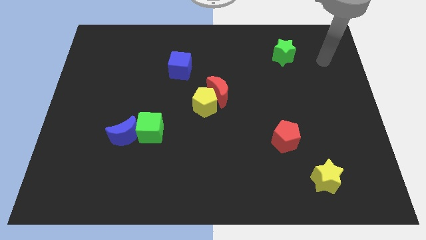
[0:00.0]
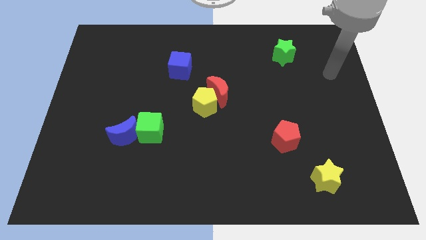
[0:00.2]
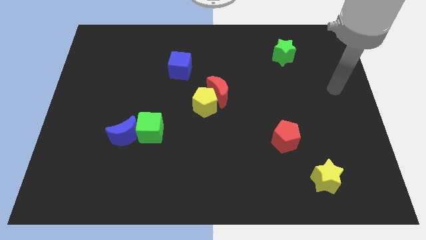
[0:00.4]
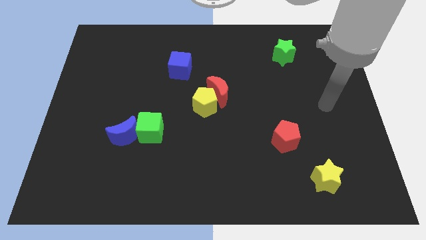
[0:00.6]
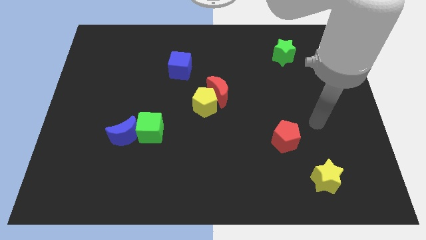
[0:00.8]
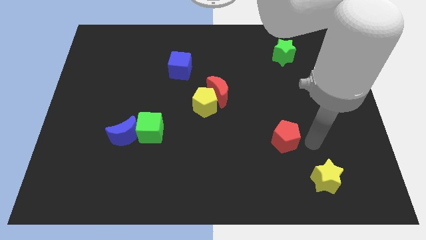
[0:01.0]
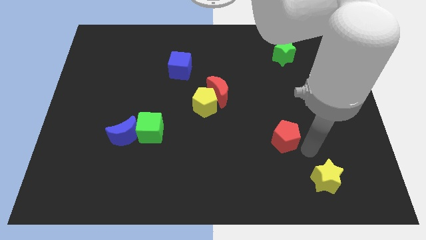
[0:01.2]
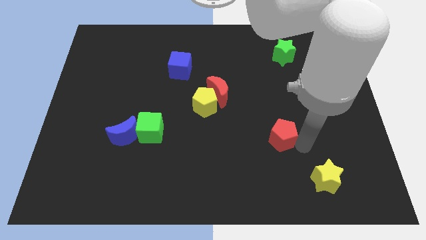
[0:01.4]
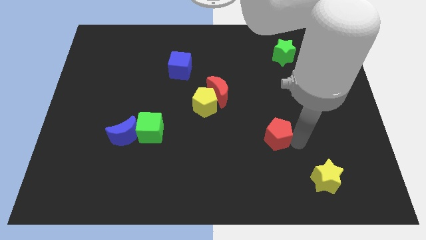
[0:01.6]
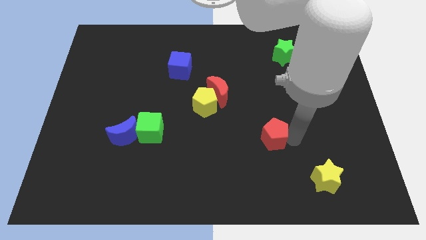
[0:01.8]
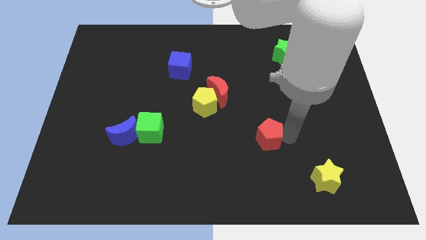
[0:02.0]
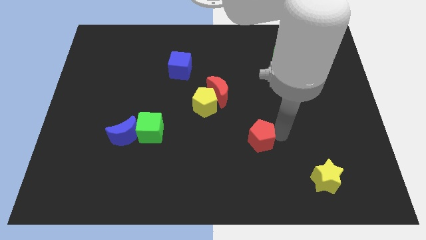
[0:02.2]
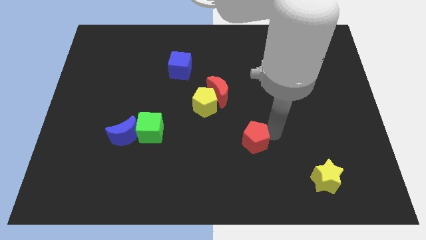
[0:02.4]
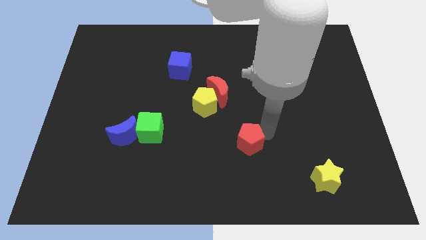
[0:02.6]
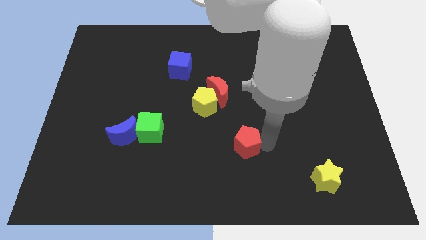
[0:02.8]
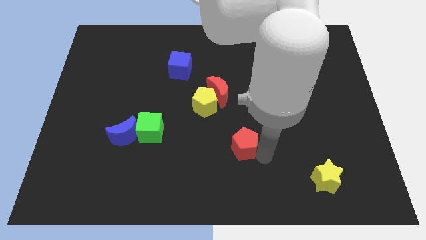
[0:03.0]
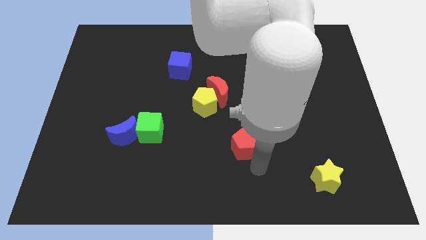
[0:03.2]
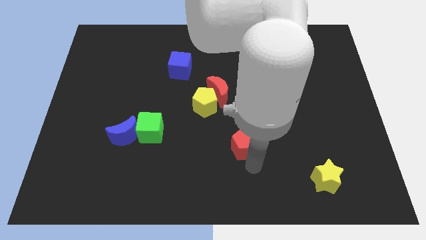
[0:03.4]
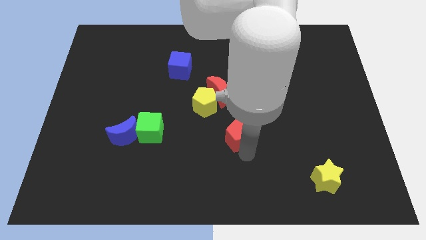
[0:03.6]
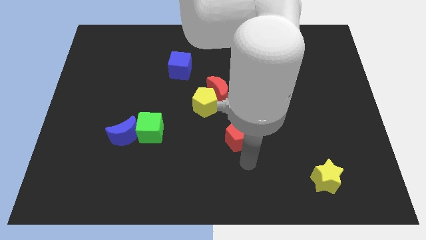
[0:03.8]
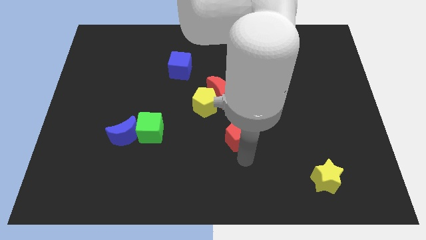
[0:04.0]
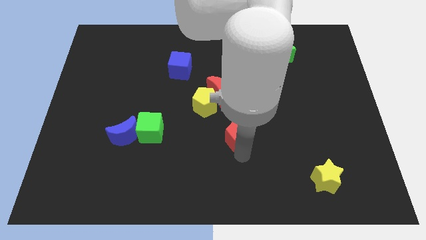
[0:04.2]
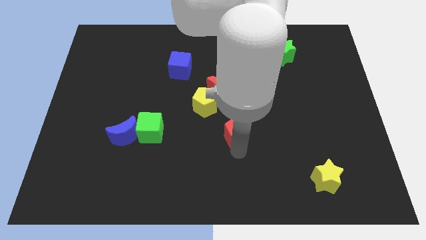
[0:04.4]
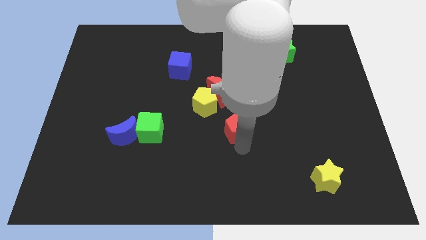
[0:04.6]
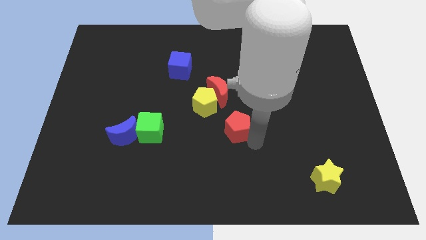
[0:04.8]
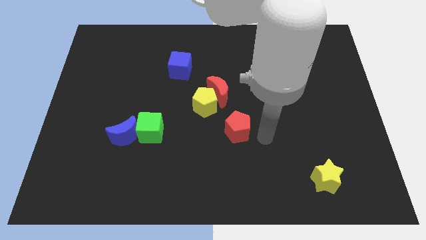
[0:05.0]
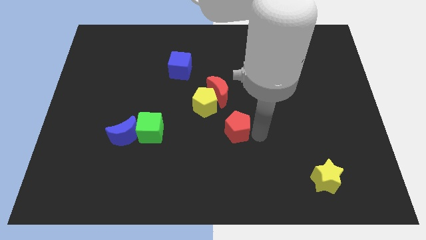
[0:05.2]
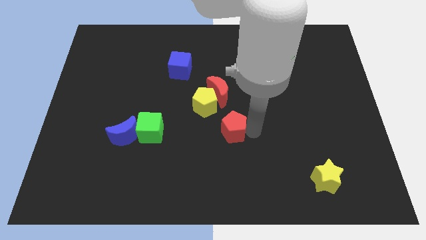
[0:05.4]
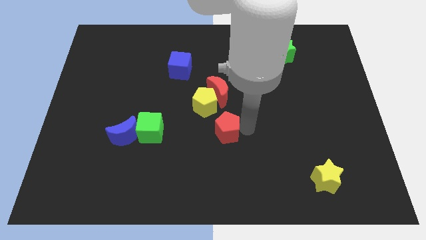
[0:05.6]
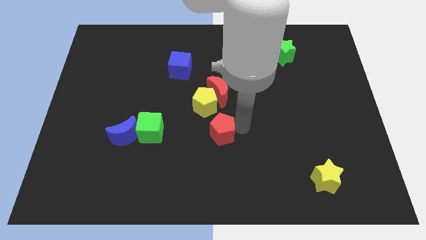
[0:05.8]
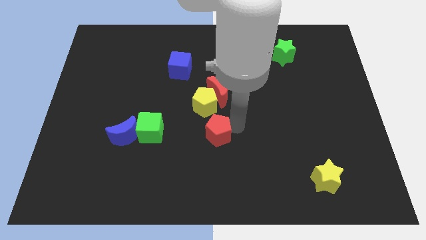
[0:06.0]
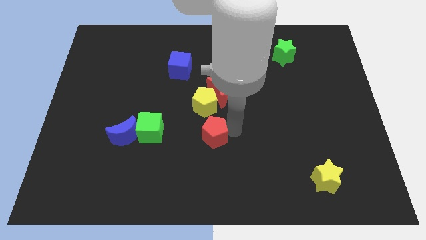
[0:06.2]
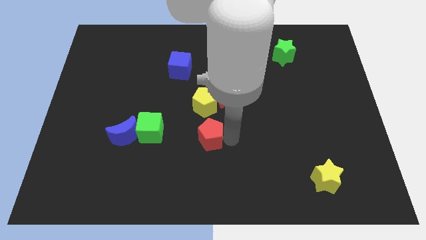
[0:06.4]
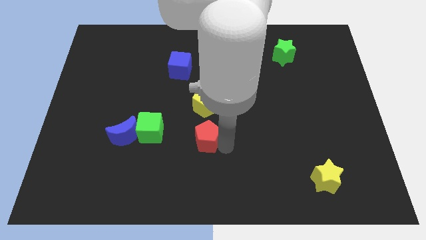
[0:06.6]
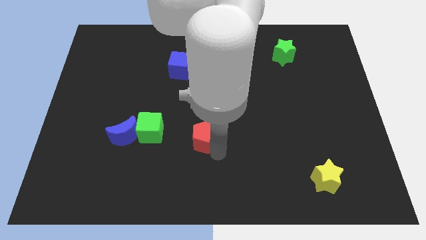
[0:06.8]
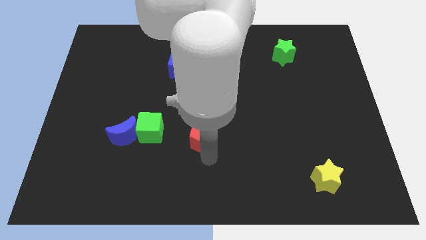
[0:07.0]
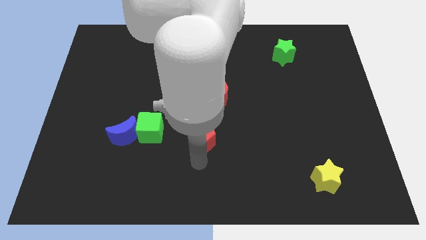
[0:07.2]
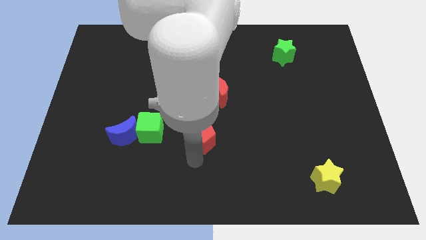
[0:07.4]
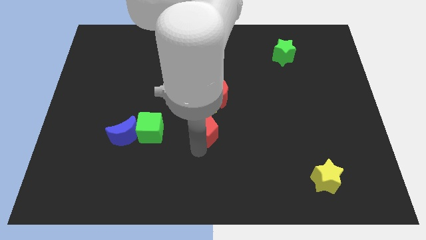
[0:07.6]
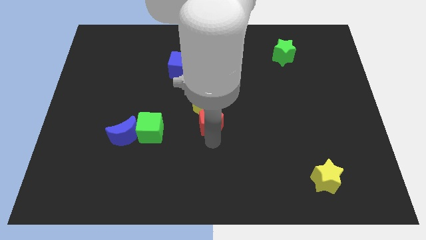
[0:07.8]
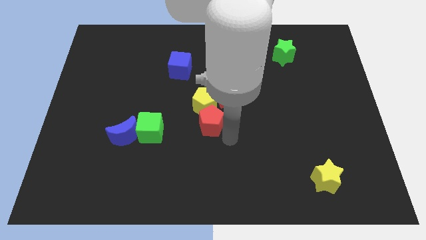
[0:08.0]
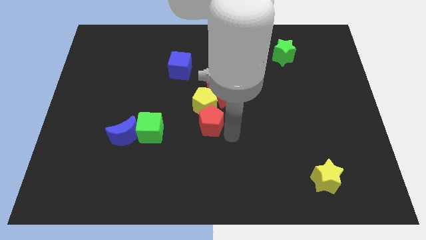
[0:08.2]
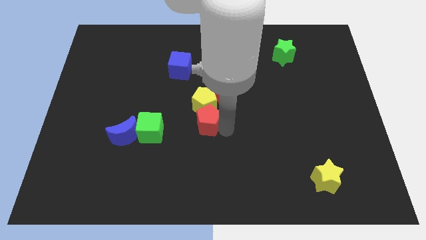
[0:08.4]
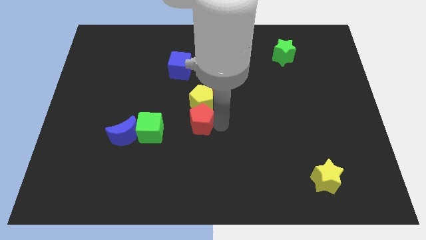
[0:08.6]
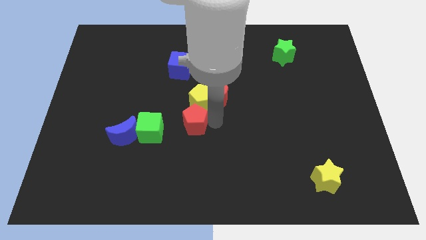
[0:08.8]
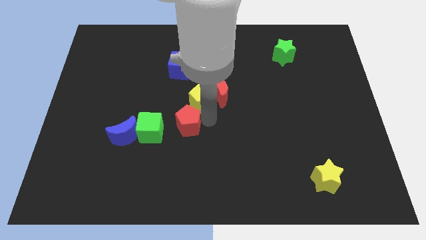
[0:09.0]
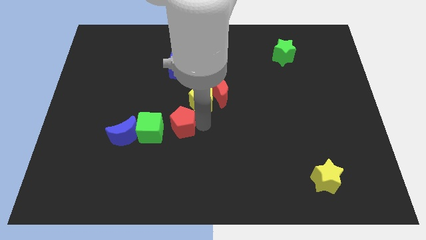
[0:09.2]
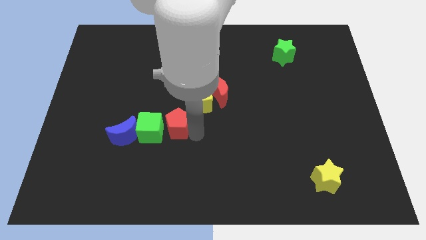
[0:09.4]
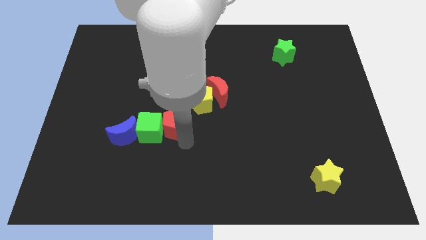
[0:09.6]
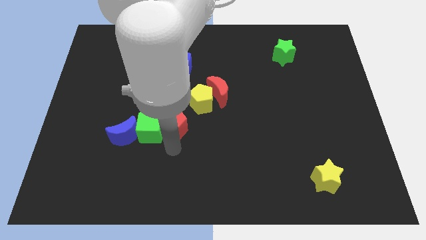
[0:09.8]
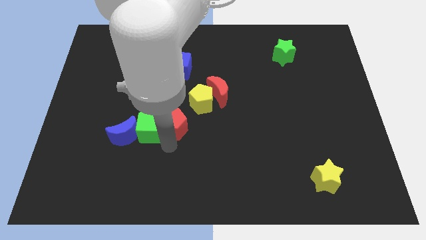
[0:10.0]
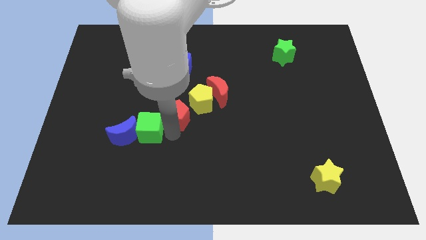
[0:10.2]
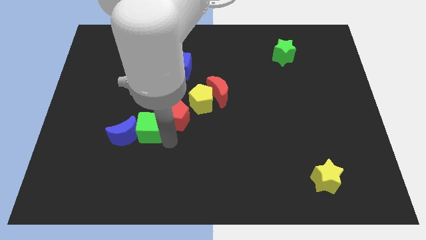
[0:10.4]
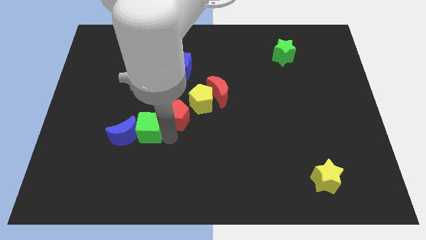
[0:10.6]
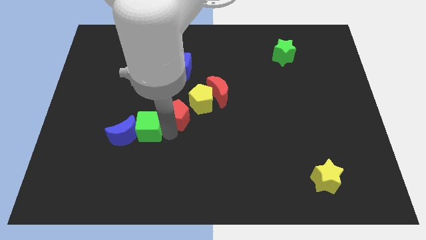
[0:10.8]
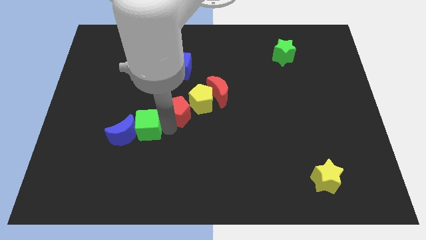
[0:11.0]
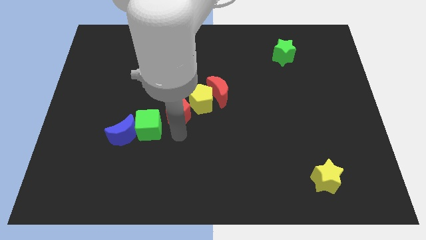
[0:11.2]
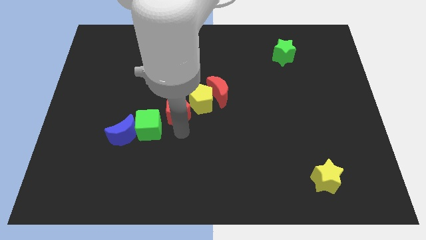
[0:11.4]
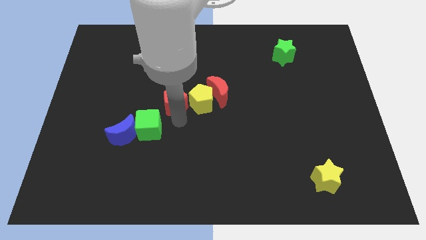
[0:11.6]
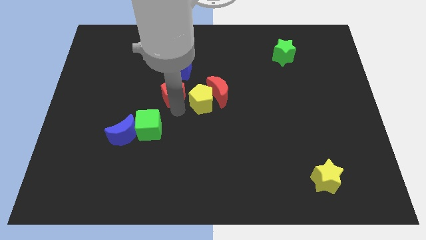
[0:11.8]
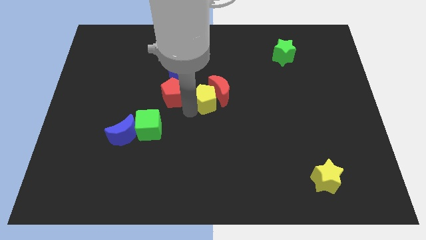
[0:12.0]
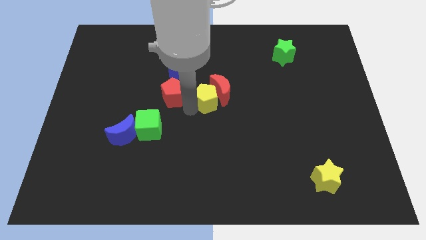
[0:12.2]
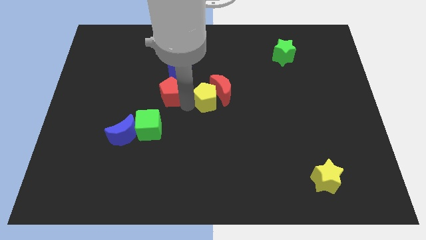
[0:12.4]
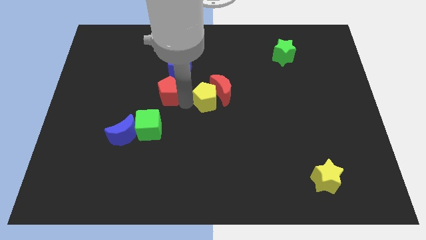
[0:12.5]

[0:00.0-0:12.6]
put the red pentagon to the bottom left side of the blue cube
